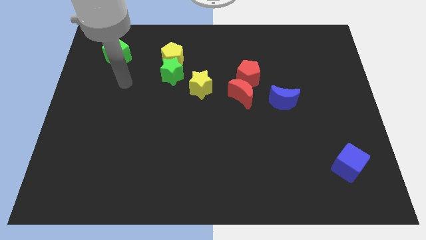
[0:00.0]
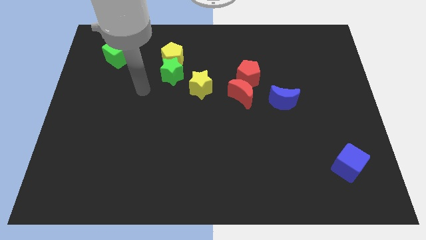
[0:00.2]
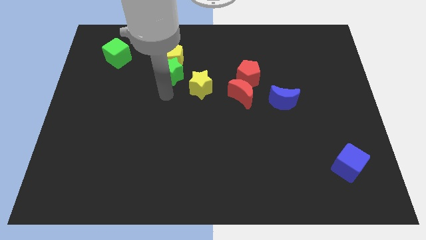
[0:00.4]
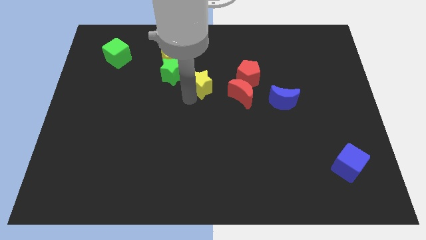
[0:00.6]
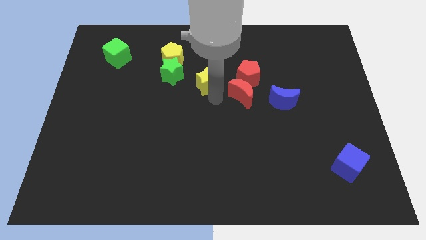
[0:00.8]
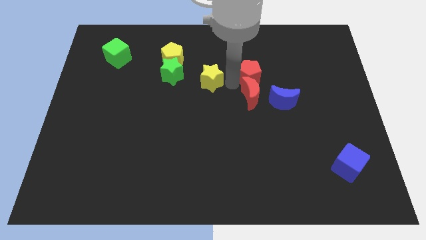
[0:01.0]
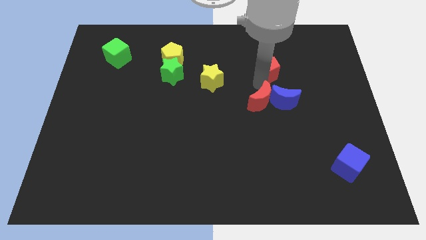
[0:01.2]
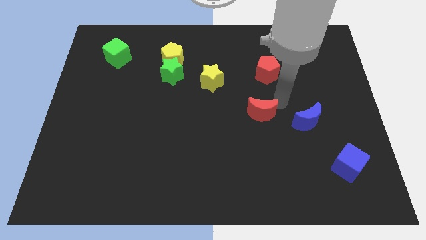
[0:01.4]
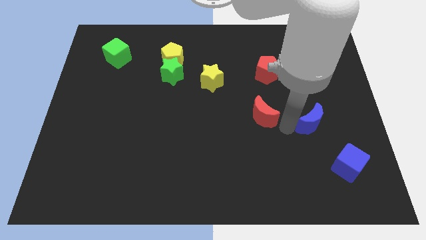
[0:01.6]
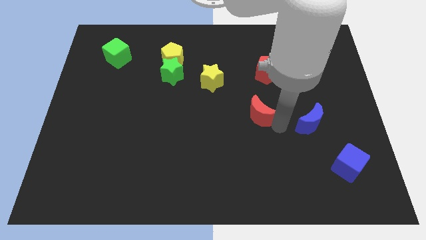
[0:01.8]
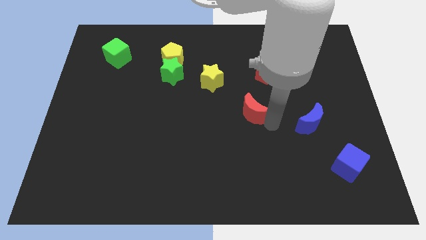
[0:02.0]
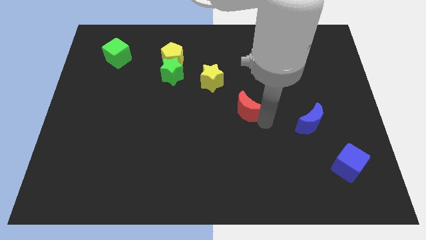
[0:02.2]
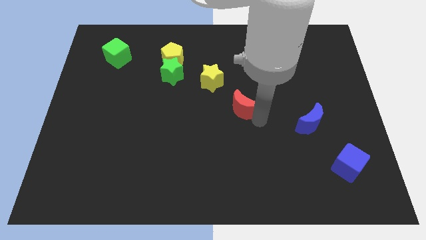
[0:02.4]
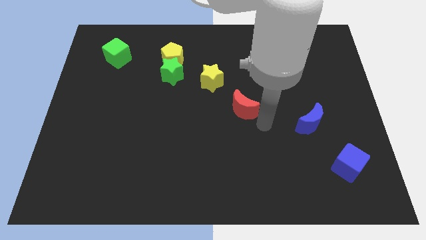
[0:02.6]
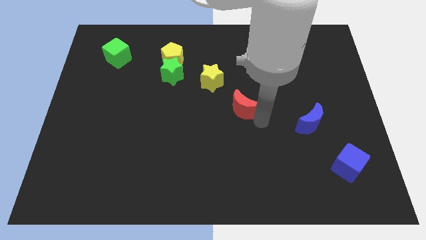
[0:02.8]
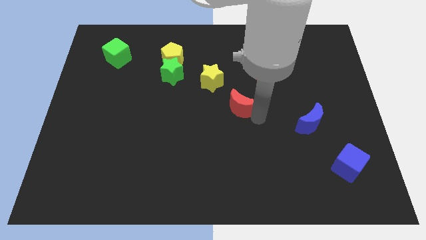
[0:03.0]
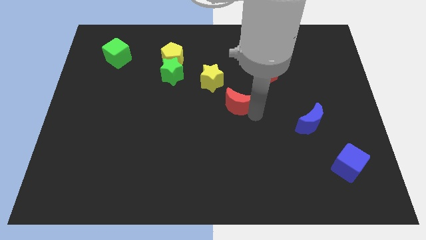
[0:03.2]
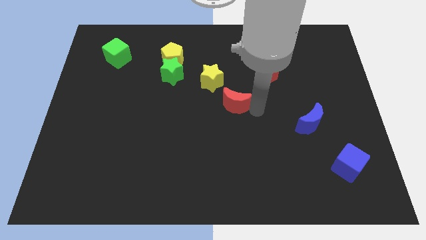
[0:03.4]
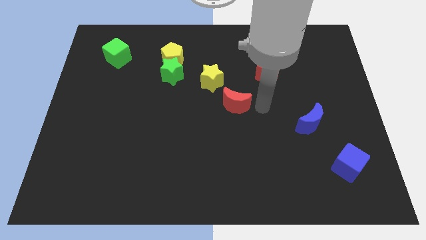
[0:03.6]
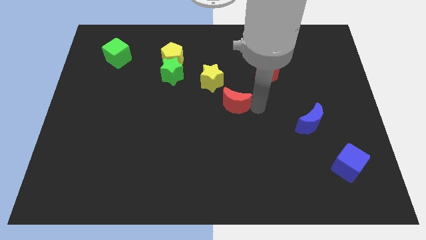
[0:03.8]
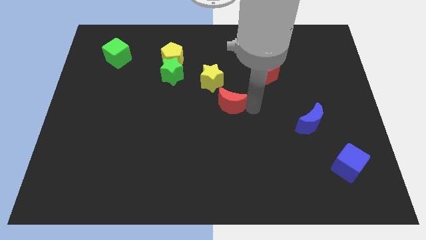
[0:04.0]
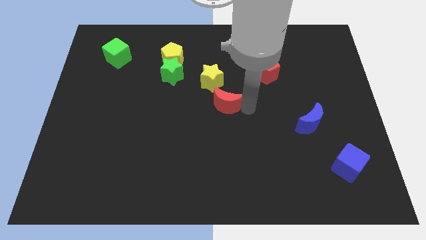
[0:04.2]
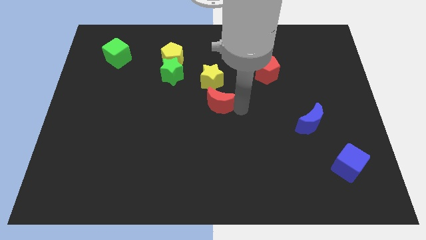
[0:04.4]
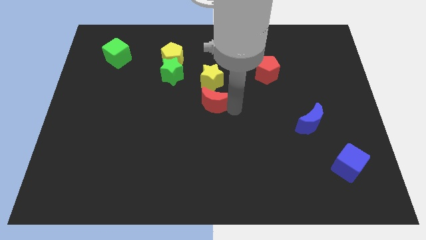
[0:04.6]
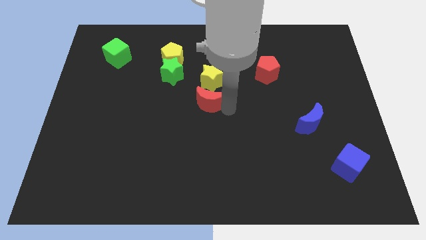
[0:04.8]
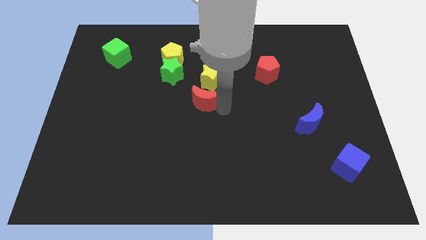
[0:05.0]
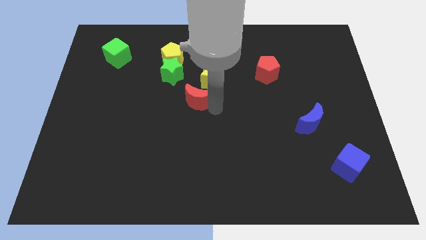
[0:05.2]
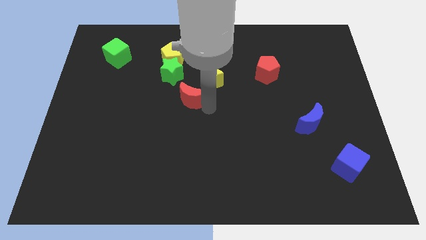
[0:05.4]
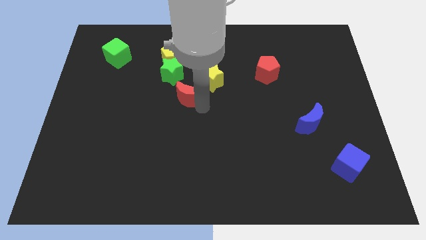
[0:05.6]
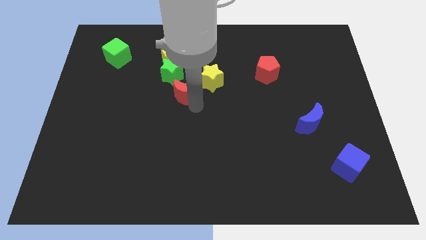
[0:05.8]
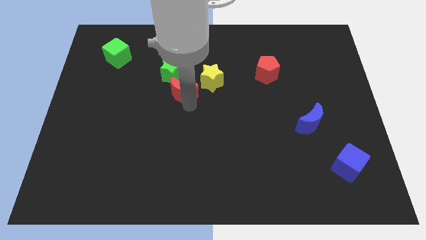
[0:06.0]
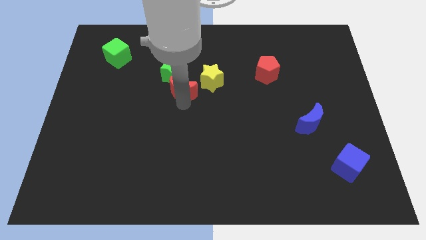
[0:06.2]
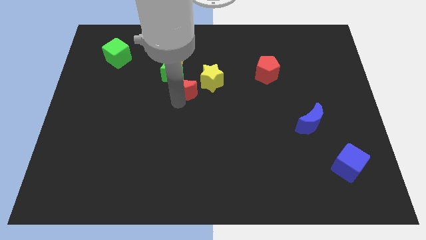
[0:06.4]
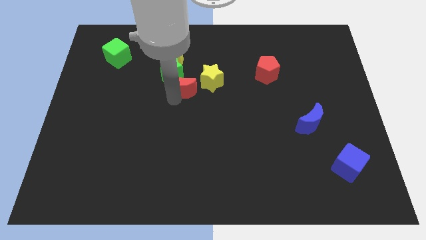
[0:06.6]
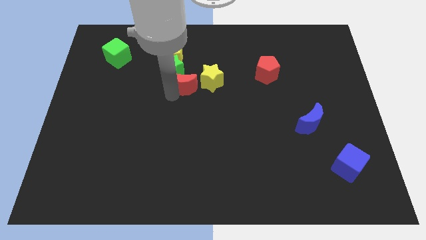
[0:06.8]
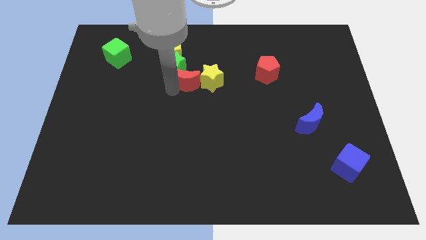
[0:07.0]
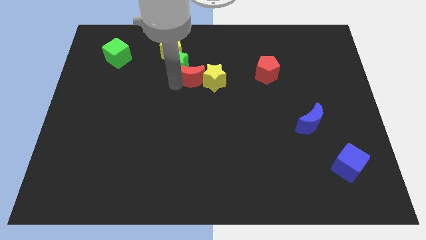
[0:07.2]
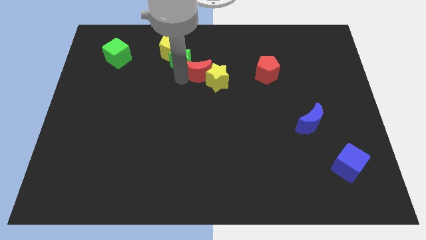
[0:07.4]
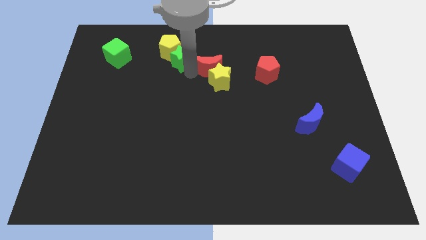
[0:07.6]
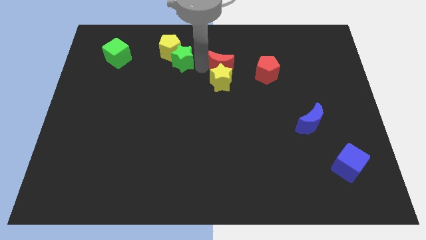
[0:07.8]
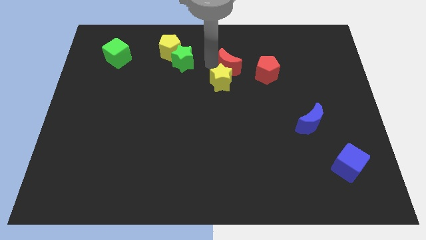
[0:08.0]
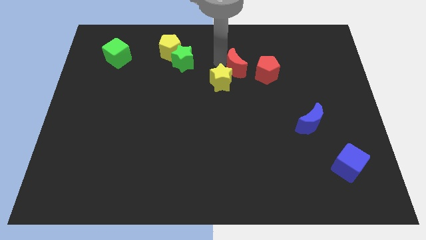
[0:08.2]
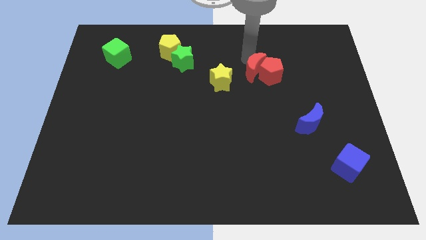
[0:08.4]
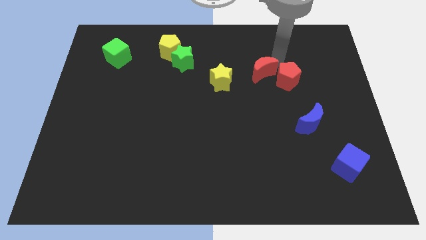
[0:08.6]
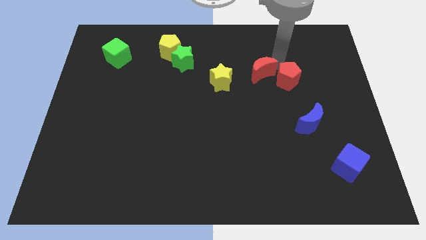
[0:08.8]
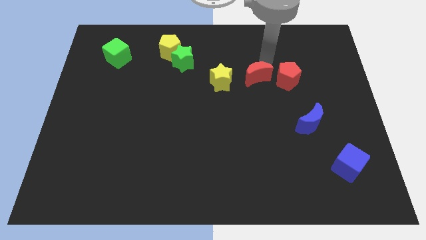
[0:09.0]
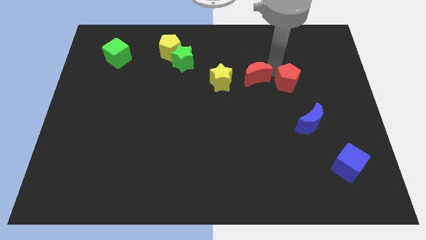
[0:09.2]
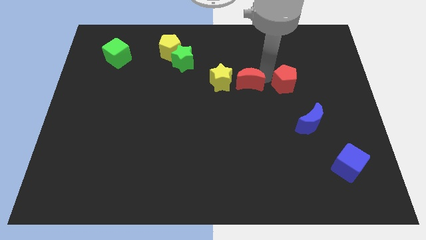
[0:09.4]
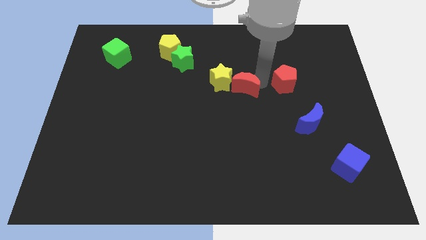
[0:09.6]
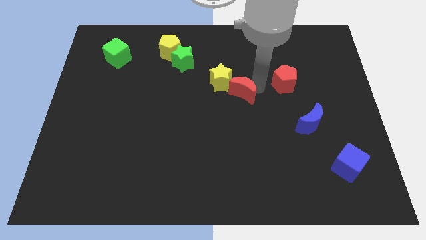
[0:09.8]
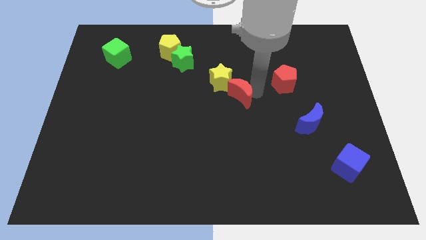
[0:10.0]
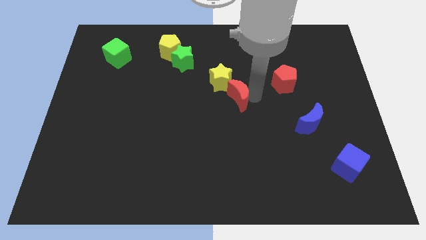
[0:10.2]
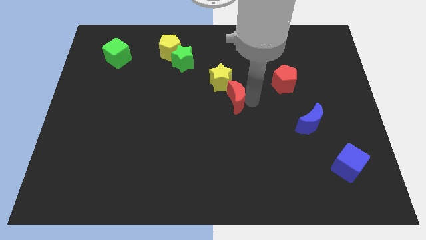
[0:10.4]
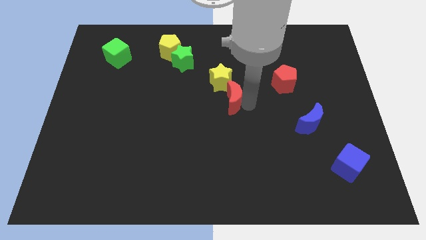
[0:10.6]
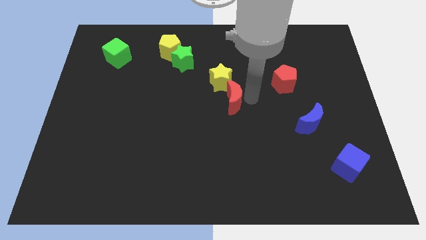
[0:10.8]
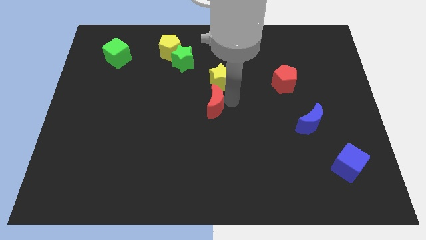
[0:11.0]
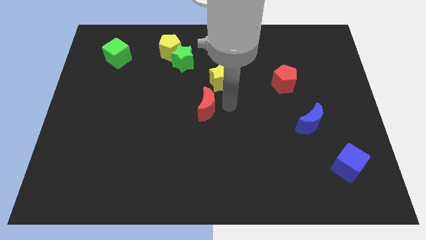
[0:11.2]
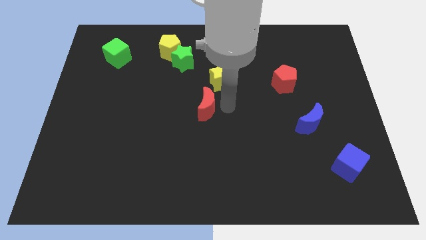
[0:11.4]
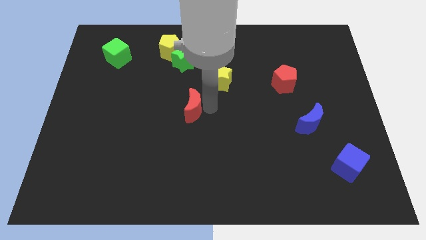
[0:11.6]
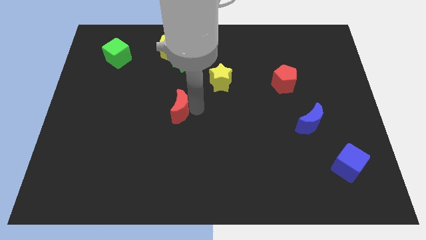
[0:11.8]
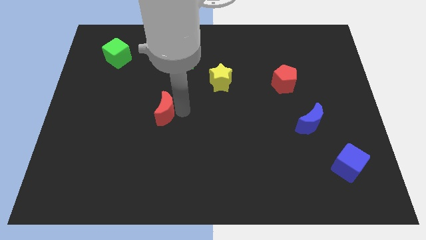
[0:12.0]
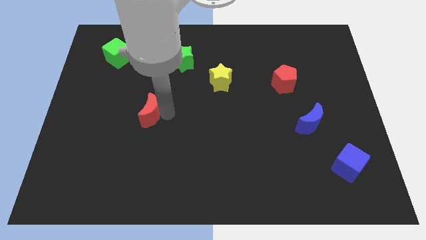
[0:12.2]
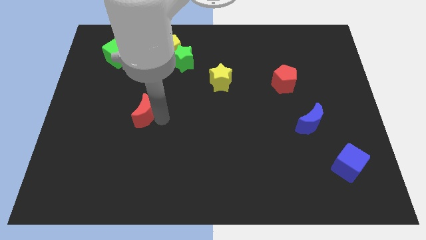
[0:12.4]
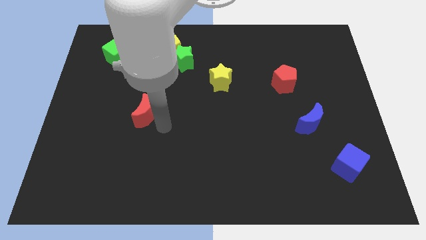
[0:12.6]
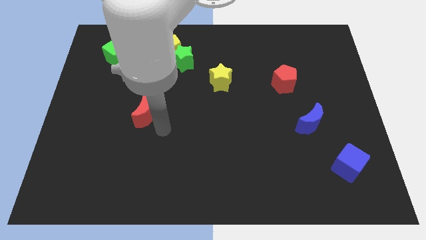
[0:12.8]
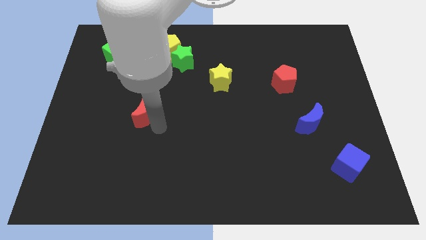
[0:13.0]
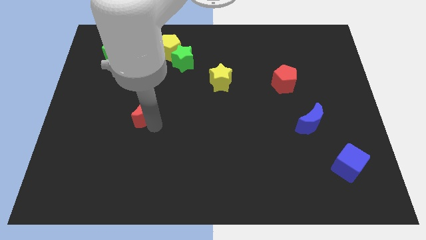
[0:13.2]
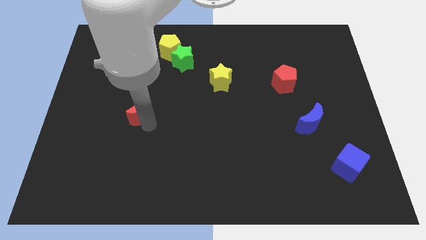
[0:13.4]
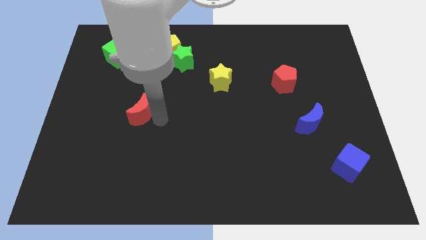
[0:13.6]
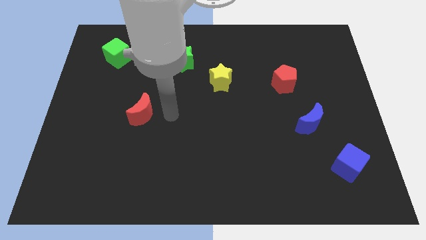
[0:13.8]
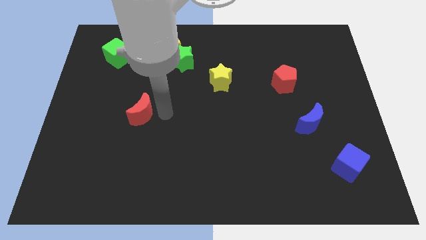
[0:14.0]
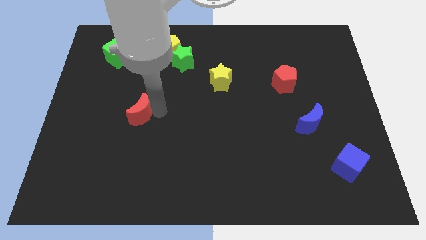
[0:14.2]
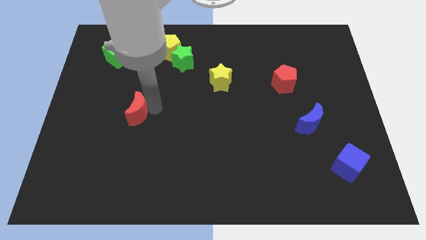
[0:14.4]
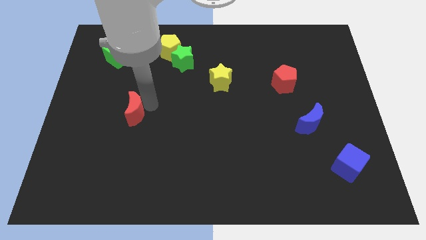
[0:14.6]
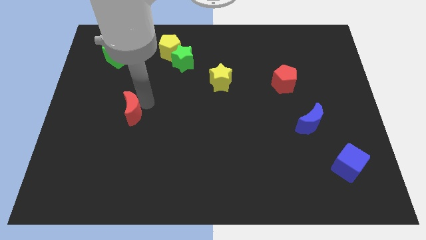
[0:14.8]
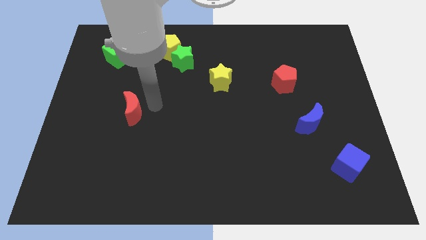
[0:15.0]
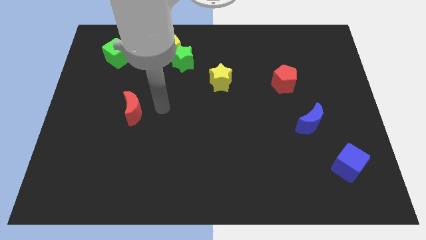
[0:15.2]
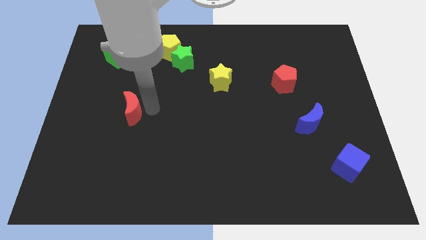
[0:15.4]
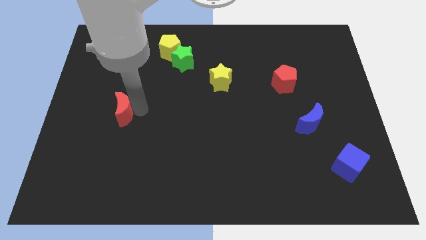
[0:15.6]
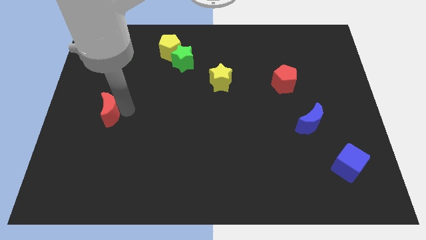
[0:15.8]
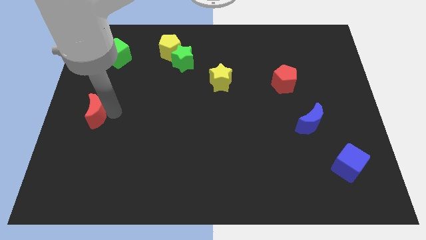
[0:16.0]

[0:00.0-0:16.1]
push the red moon to the left side
